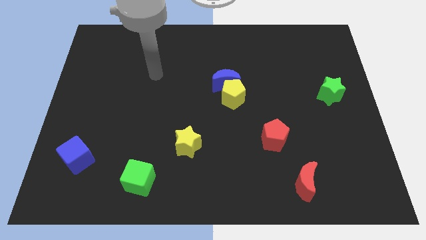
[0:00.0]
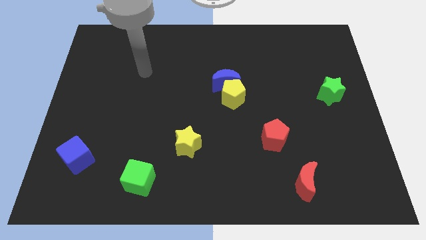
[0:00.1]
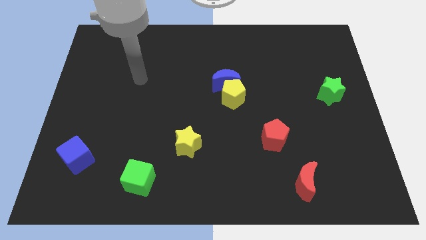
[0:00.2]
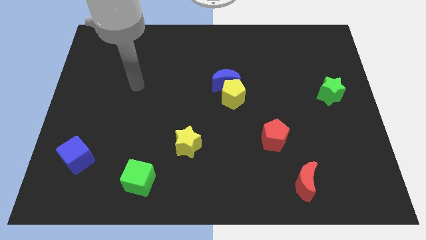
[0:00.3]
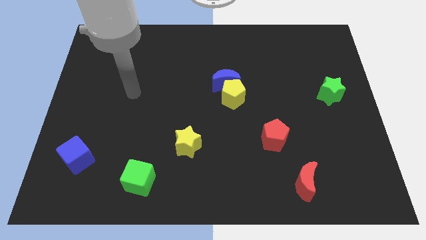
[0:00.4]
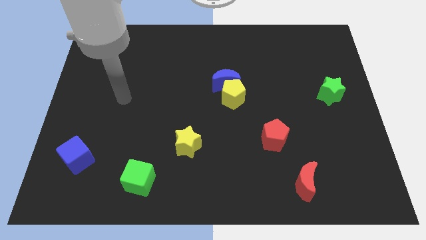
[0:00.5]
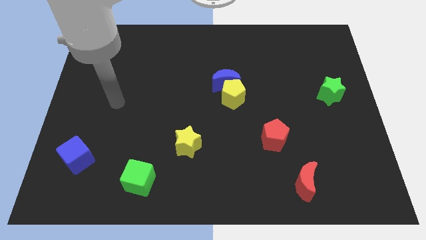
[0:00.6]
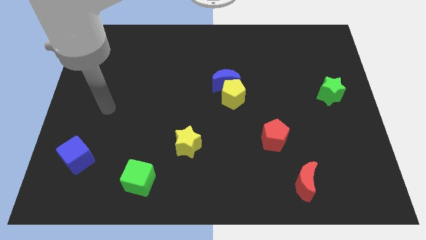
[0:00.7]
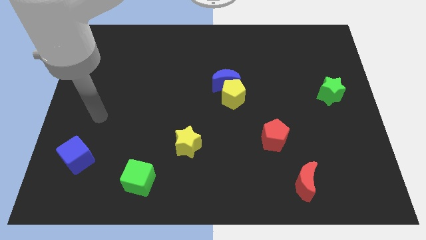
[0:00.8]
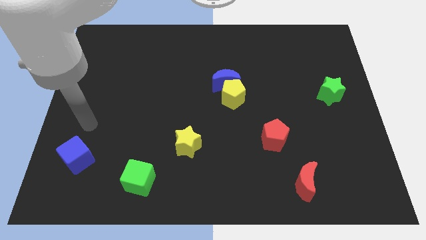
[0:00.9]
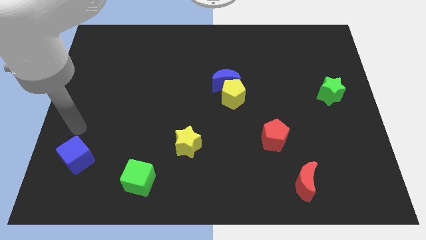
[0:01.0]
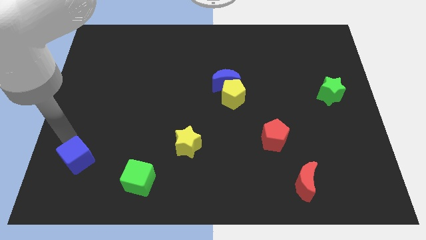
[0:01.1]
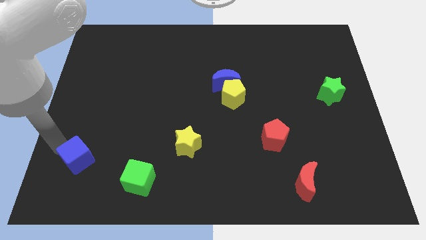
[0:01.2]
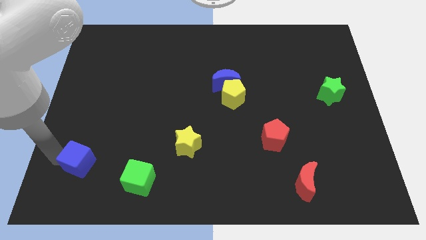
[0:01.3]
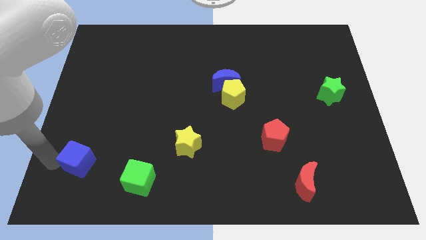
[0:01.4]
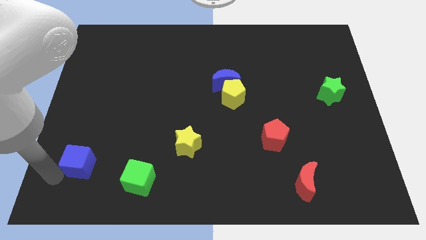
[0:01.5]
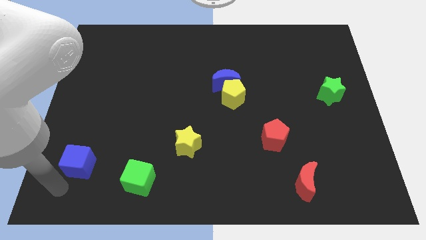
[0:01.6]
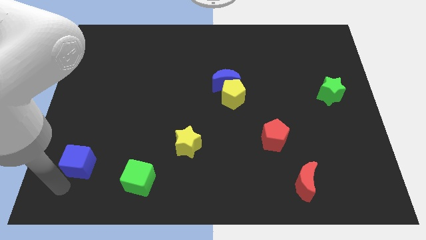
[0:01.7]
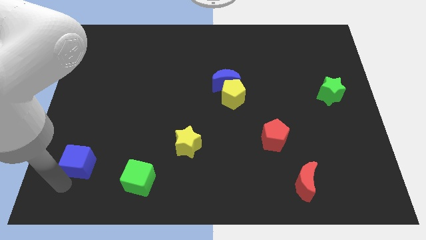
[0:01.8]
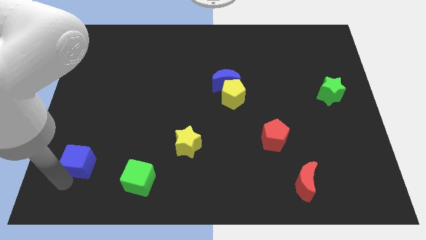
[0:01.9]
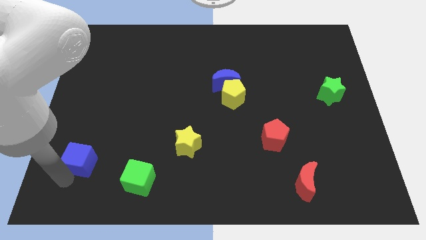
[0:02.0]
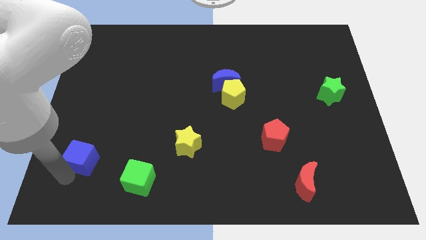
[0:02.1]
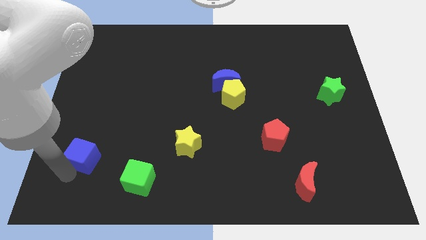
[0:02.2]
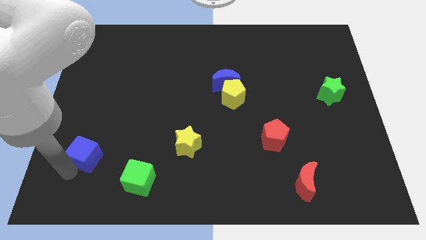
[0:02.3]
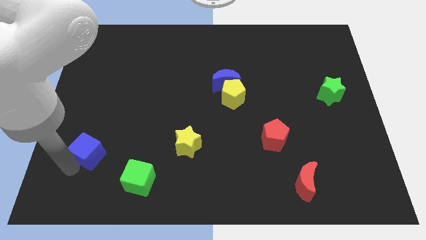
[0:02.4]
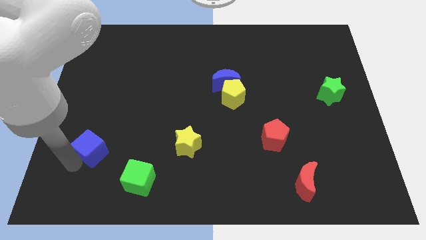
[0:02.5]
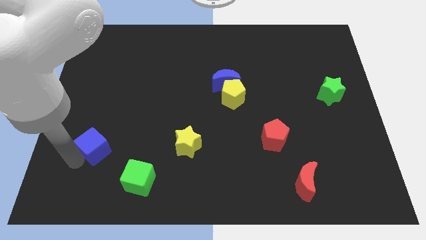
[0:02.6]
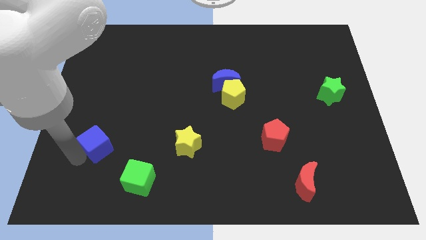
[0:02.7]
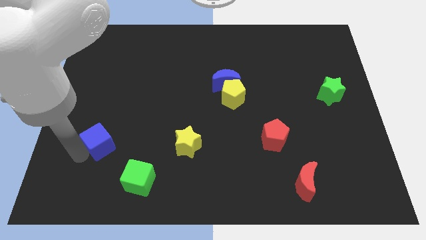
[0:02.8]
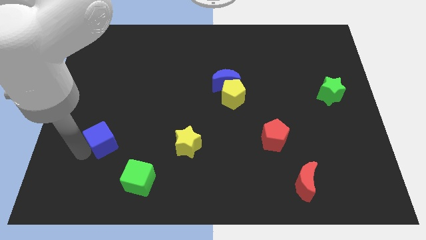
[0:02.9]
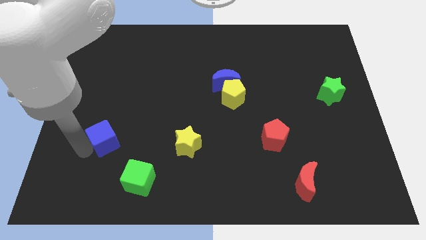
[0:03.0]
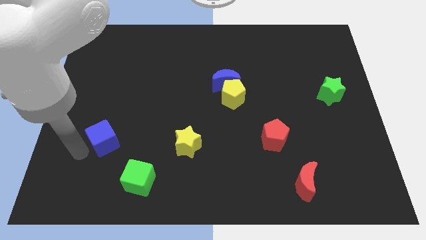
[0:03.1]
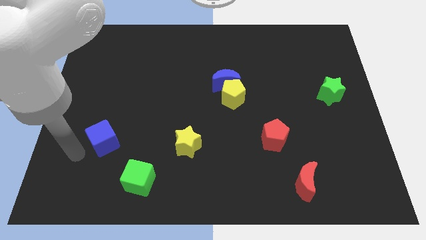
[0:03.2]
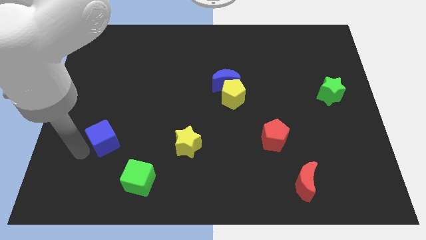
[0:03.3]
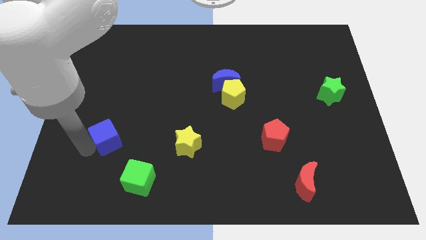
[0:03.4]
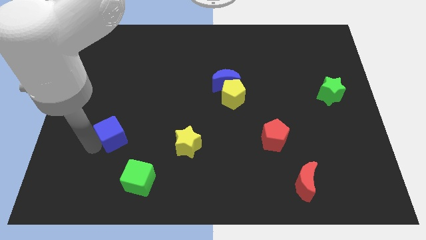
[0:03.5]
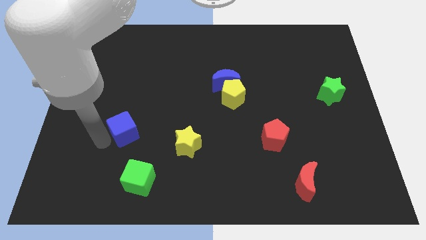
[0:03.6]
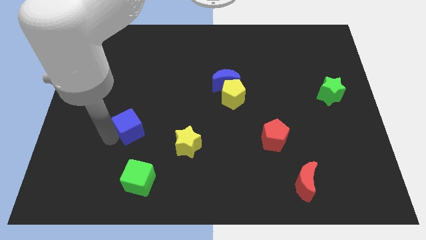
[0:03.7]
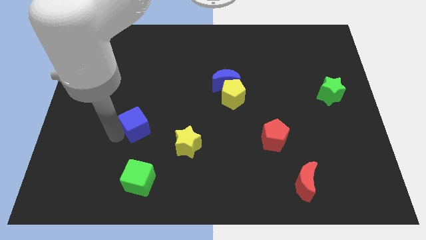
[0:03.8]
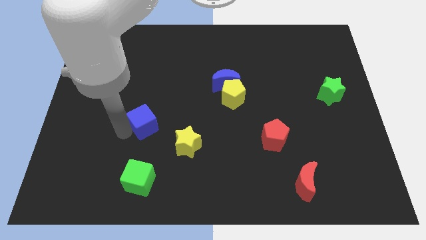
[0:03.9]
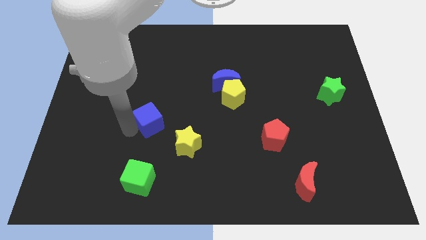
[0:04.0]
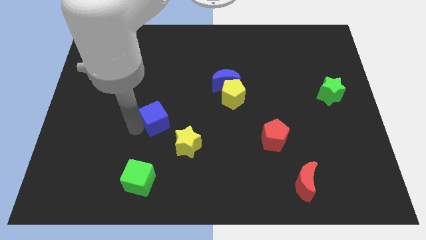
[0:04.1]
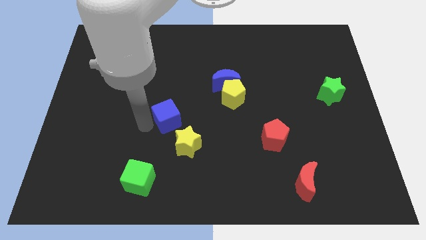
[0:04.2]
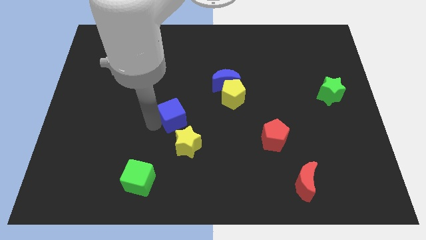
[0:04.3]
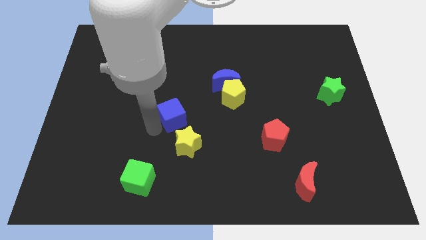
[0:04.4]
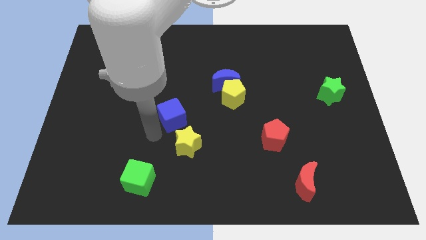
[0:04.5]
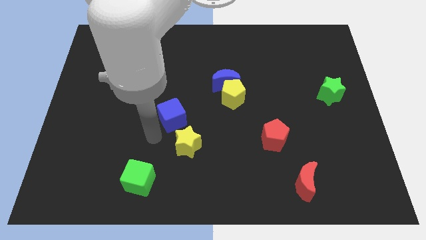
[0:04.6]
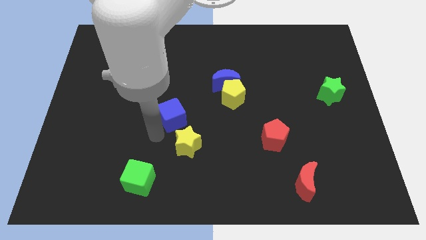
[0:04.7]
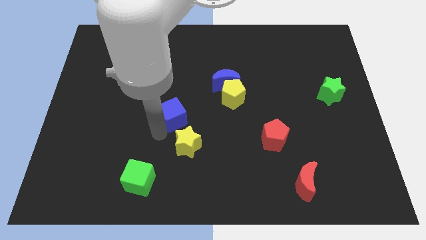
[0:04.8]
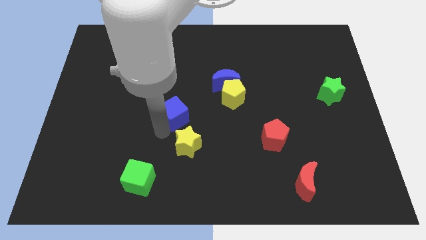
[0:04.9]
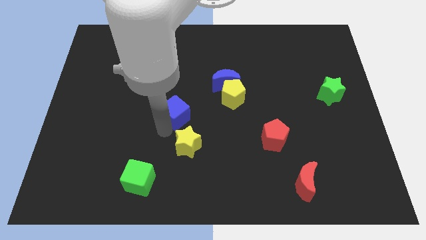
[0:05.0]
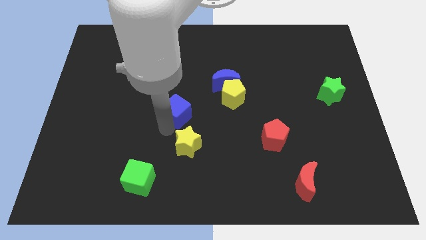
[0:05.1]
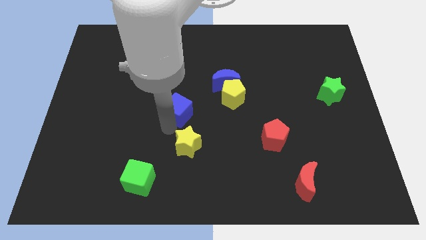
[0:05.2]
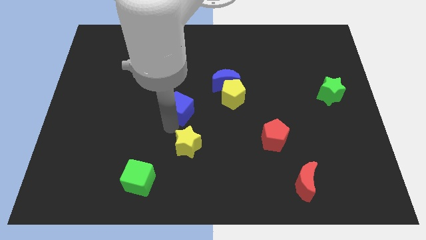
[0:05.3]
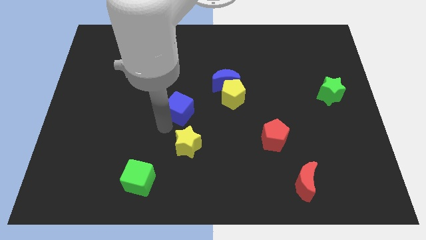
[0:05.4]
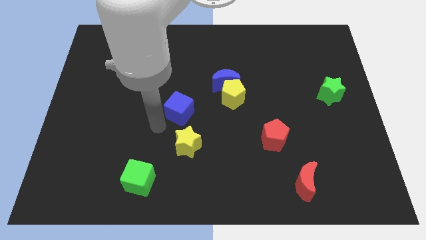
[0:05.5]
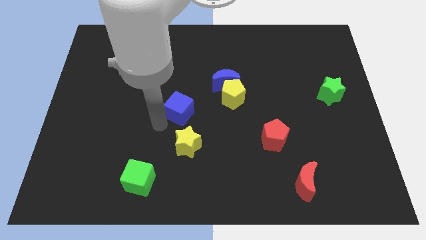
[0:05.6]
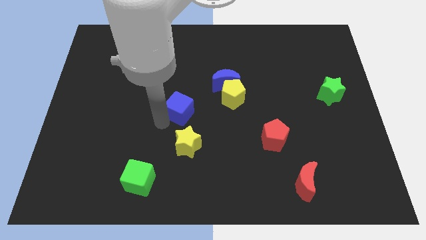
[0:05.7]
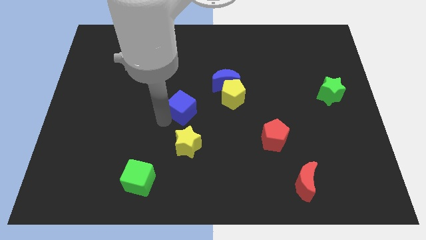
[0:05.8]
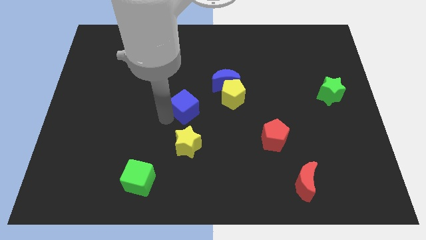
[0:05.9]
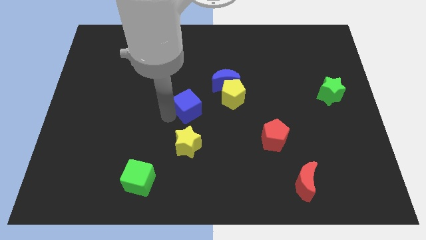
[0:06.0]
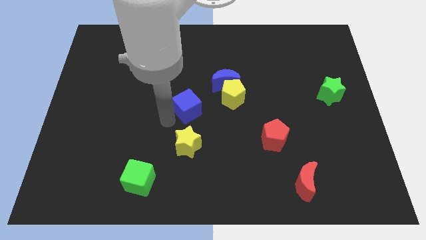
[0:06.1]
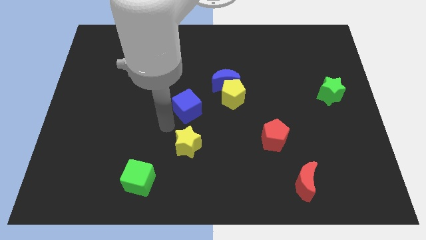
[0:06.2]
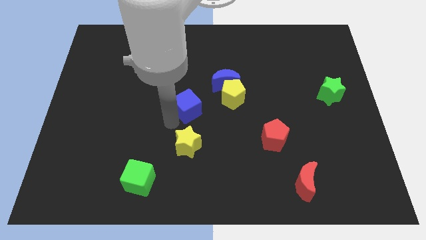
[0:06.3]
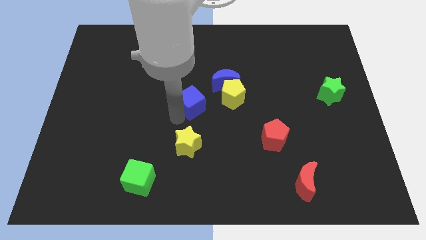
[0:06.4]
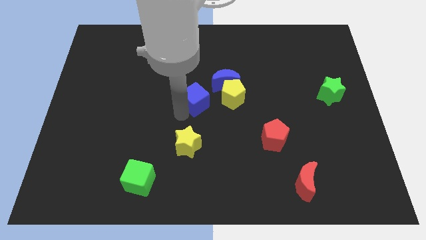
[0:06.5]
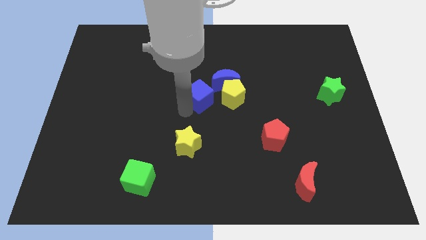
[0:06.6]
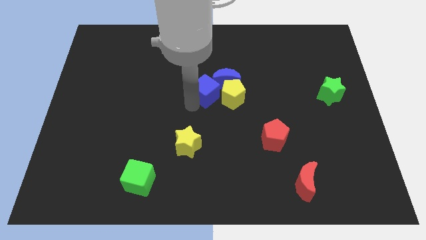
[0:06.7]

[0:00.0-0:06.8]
move the blue cube close to the blue moon

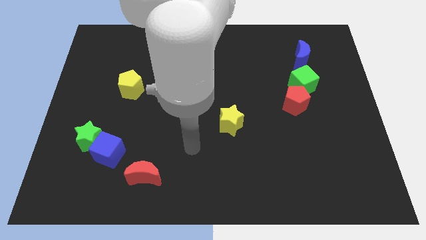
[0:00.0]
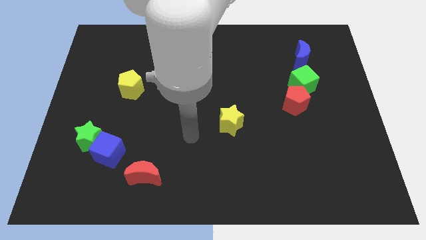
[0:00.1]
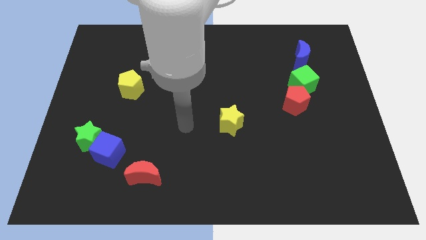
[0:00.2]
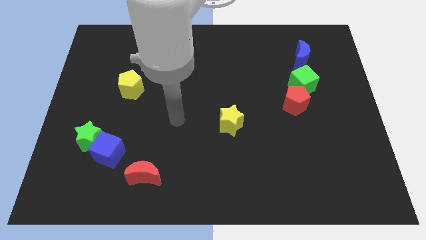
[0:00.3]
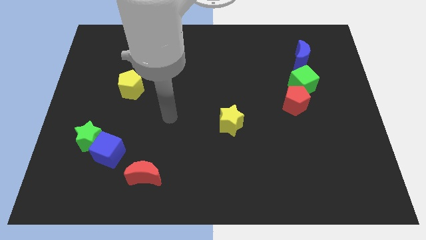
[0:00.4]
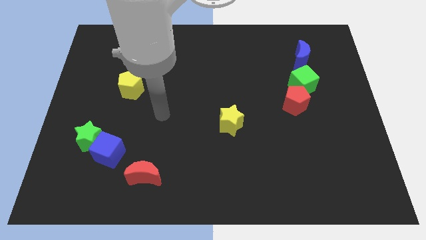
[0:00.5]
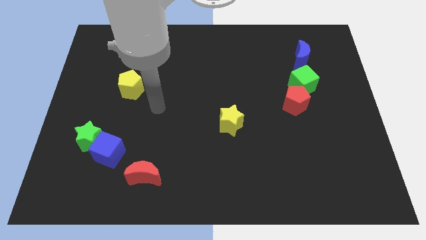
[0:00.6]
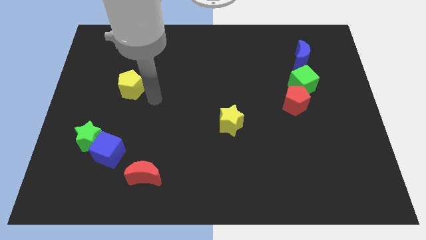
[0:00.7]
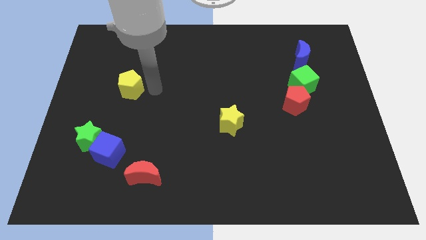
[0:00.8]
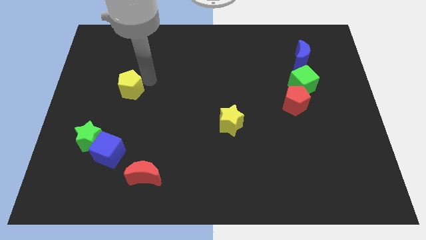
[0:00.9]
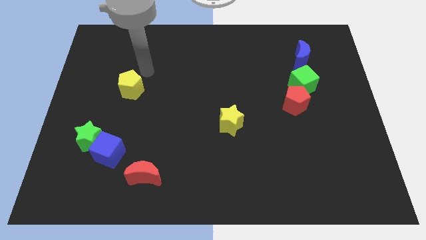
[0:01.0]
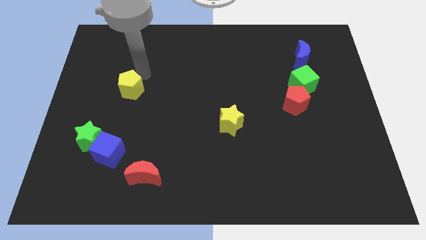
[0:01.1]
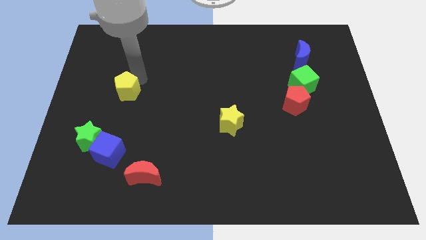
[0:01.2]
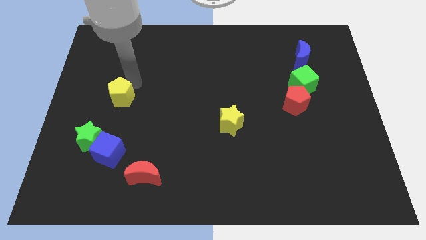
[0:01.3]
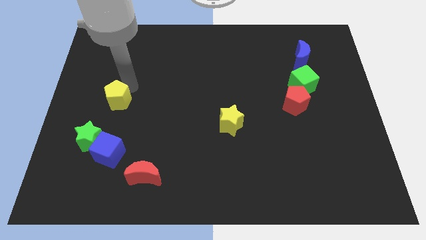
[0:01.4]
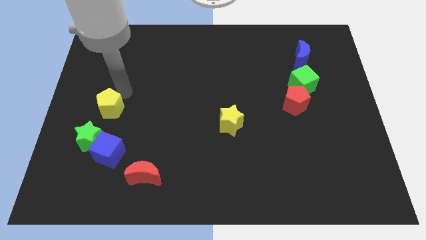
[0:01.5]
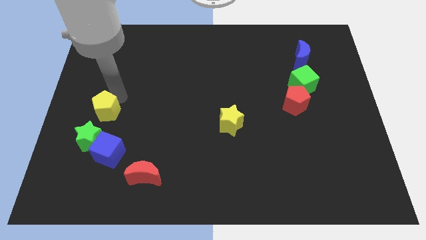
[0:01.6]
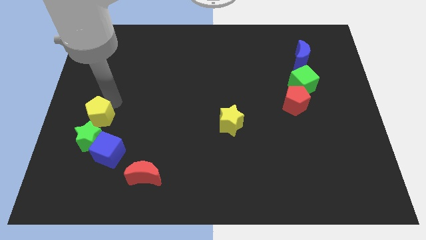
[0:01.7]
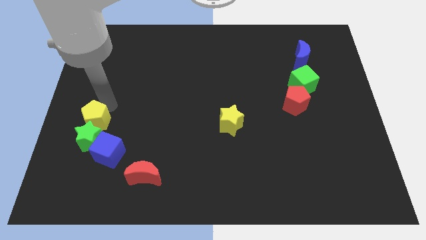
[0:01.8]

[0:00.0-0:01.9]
slide the yellow pentagon next to the green star
